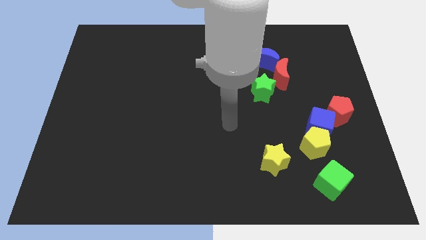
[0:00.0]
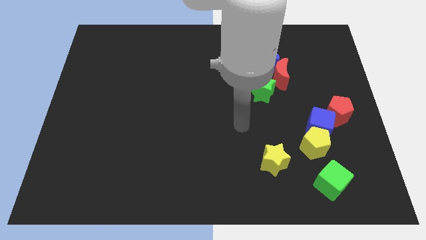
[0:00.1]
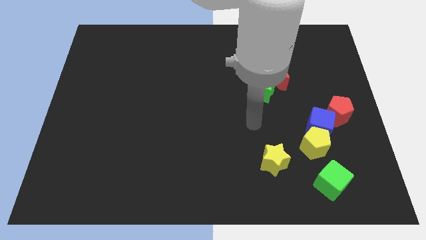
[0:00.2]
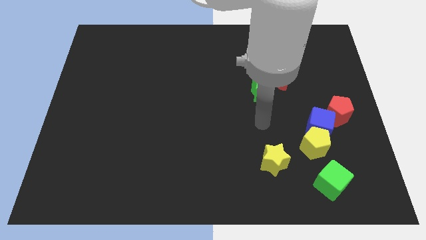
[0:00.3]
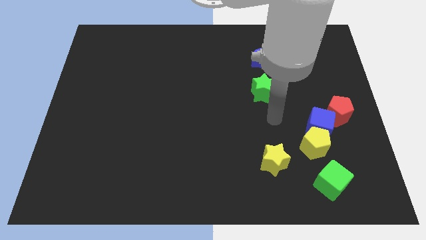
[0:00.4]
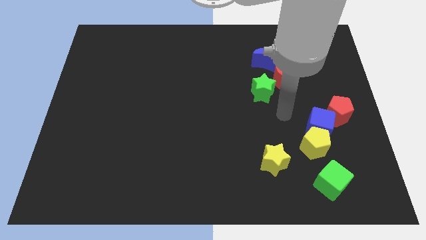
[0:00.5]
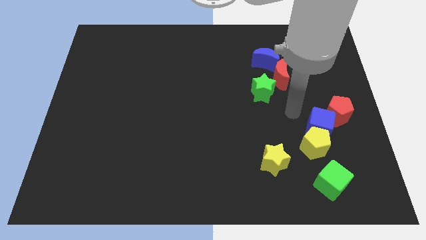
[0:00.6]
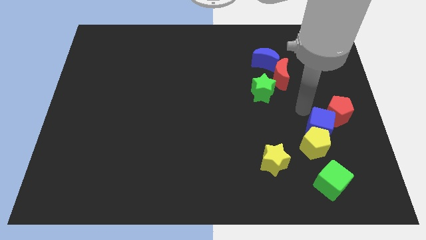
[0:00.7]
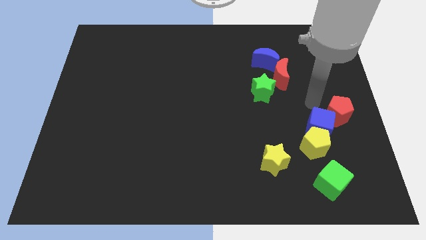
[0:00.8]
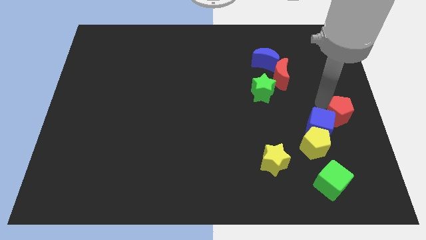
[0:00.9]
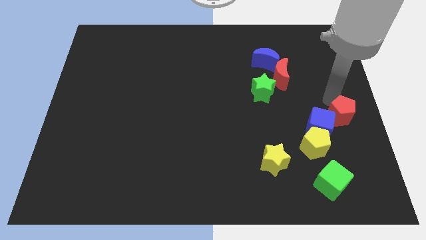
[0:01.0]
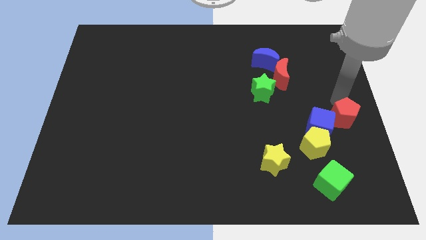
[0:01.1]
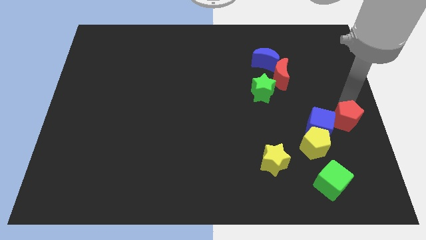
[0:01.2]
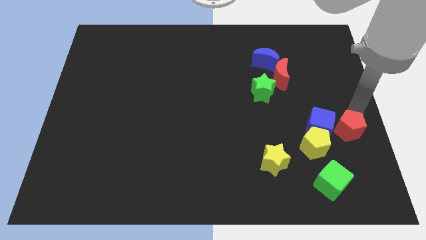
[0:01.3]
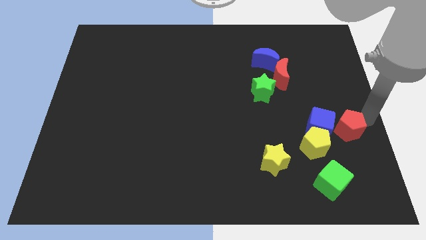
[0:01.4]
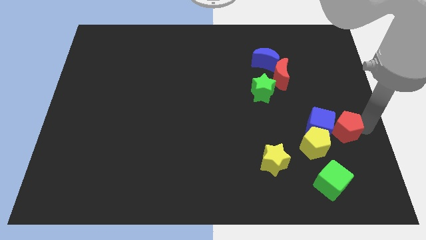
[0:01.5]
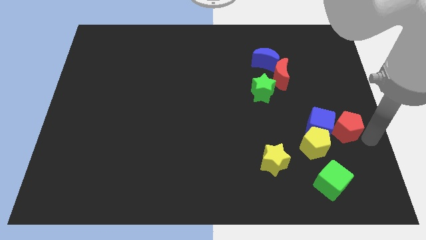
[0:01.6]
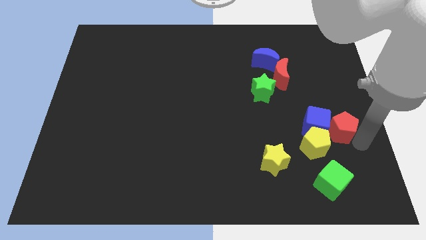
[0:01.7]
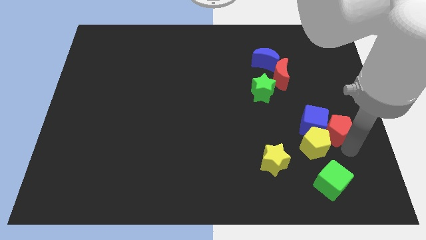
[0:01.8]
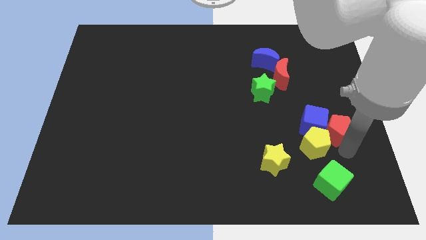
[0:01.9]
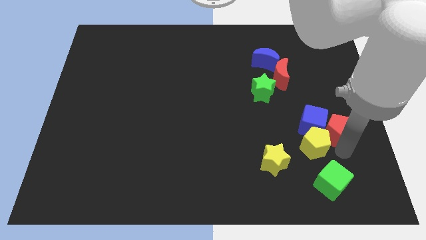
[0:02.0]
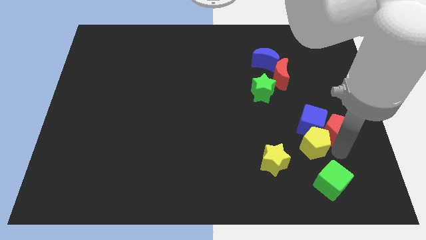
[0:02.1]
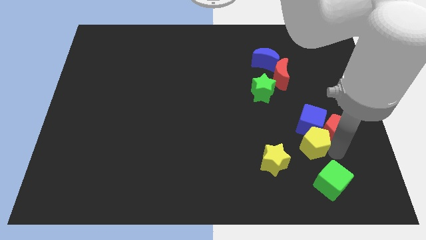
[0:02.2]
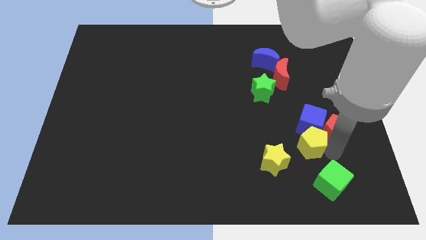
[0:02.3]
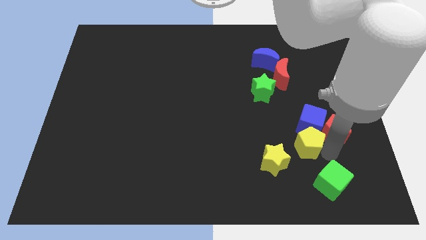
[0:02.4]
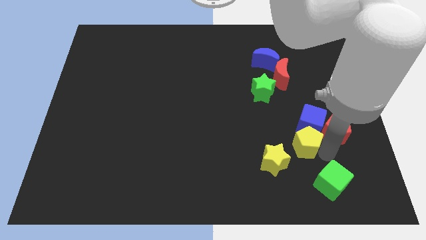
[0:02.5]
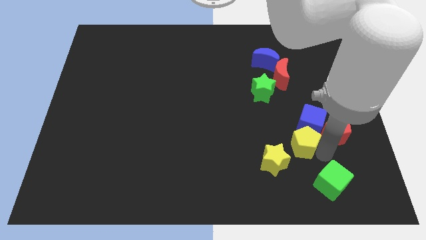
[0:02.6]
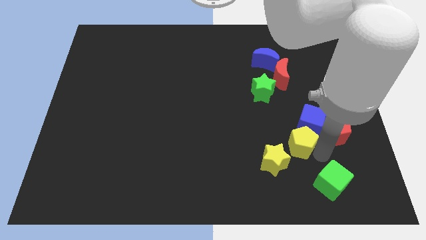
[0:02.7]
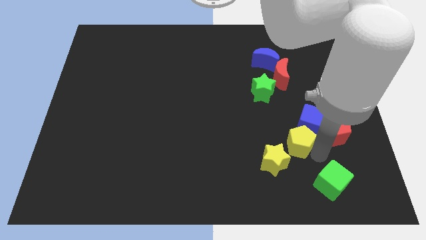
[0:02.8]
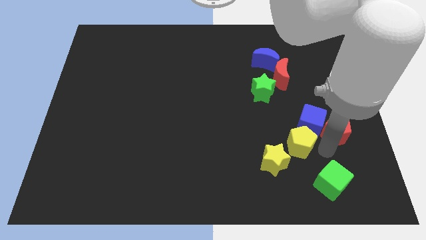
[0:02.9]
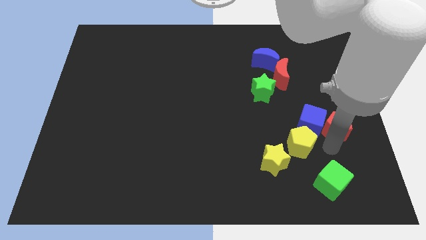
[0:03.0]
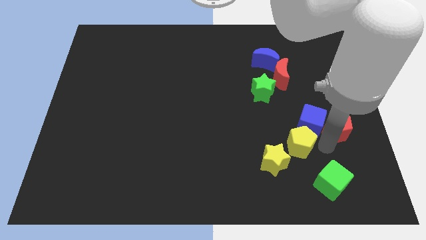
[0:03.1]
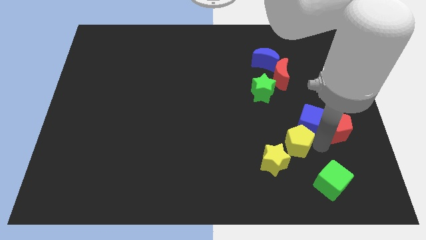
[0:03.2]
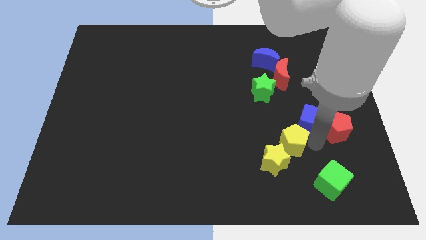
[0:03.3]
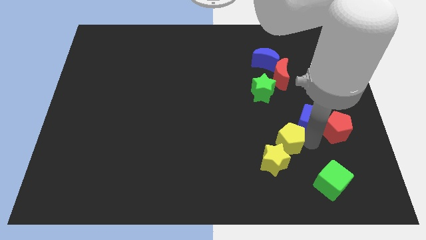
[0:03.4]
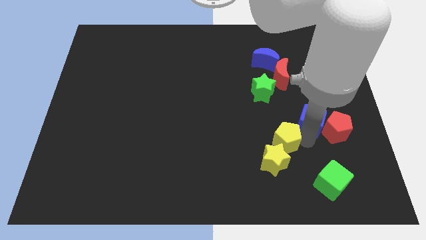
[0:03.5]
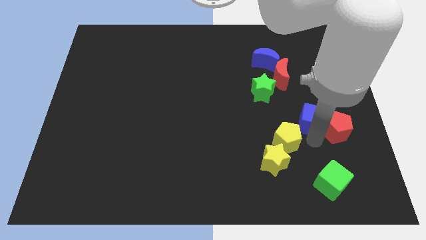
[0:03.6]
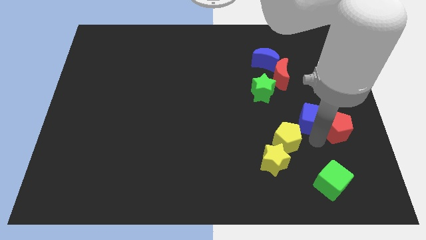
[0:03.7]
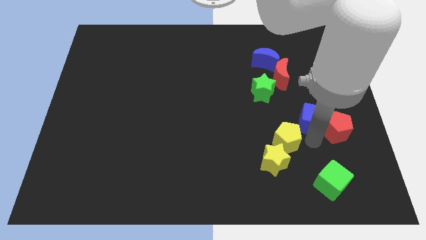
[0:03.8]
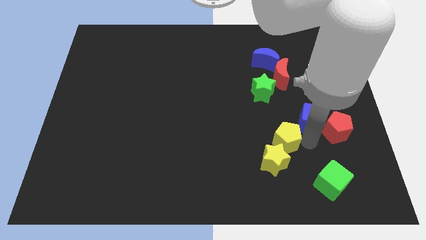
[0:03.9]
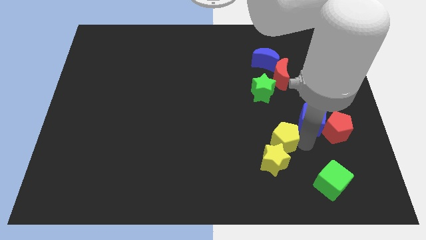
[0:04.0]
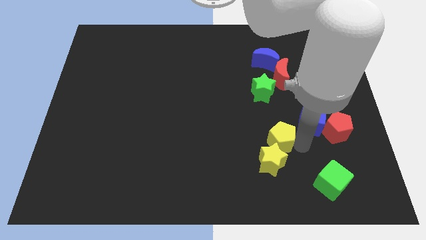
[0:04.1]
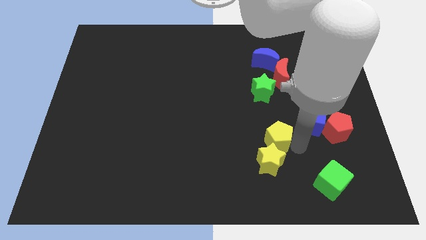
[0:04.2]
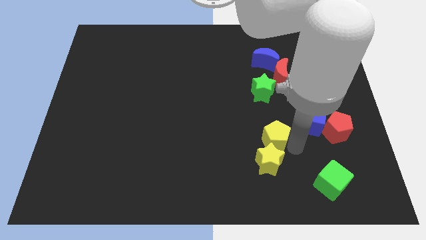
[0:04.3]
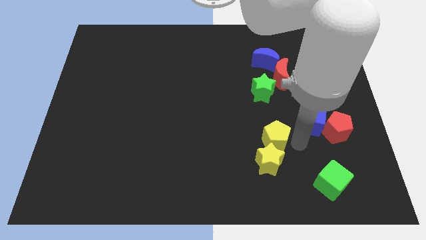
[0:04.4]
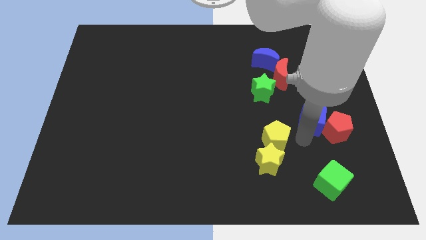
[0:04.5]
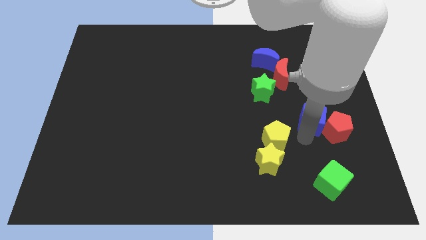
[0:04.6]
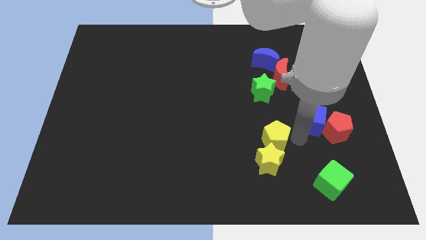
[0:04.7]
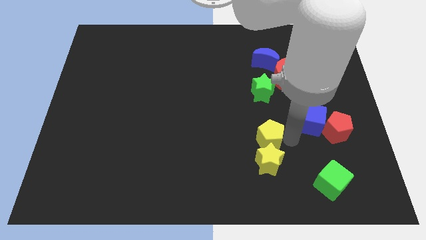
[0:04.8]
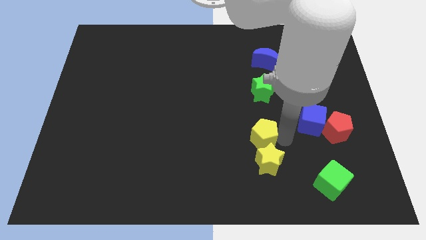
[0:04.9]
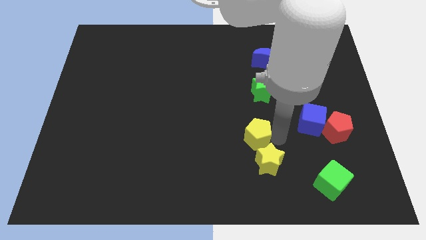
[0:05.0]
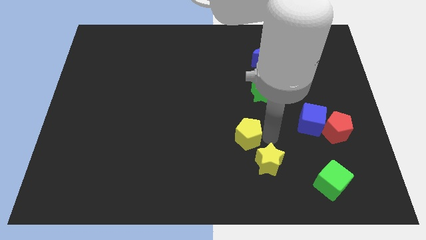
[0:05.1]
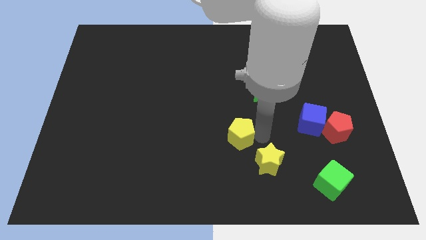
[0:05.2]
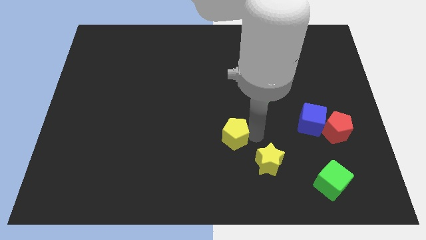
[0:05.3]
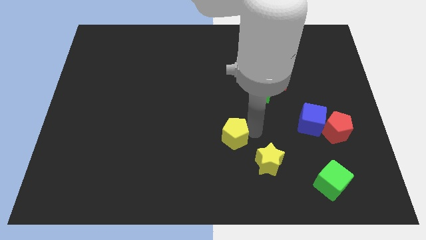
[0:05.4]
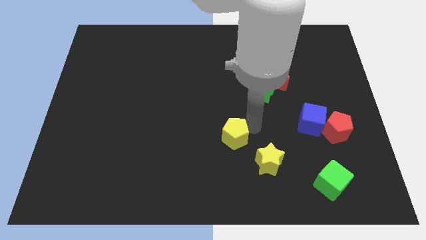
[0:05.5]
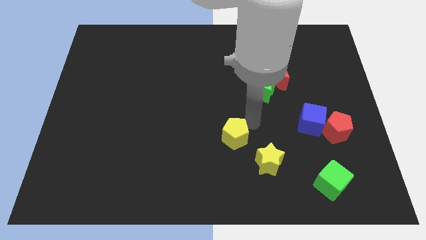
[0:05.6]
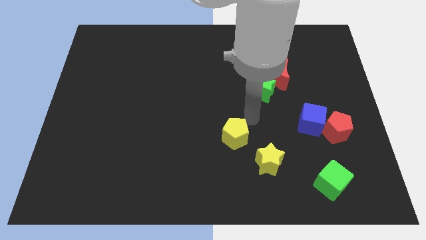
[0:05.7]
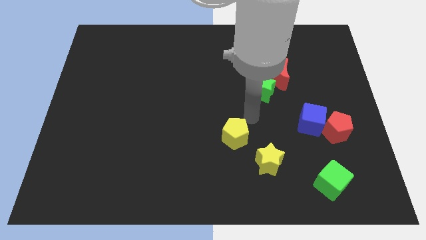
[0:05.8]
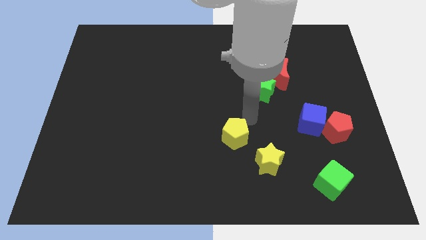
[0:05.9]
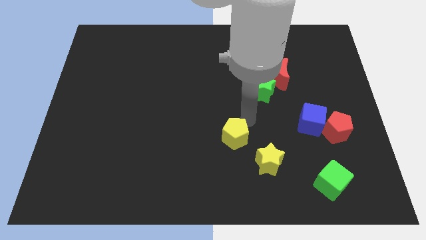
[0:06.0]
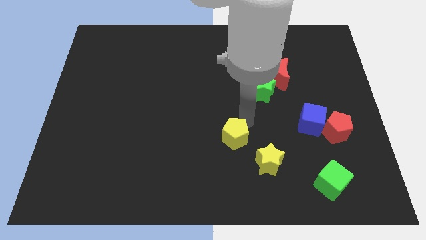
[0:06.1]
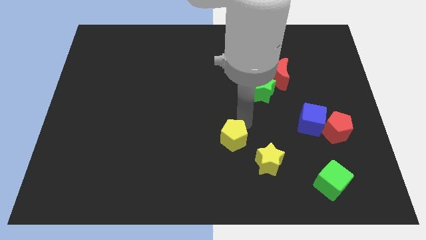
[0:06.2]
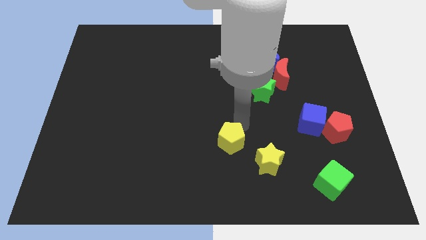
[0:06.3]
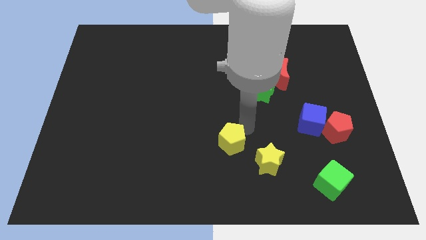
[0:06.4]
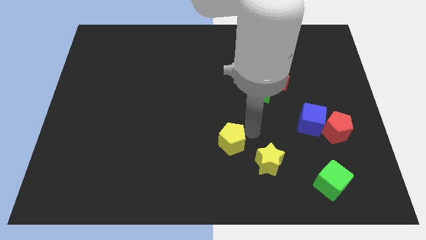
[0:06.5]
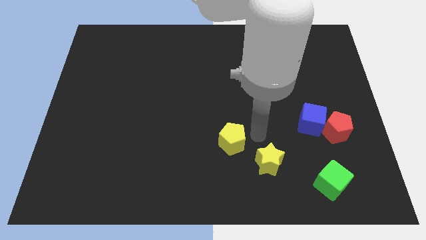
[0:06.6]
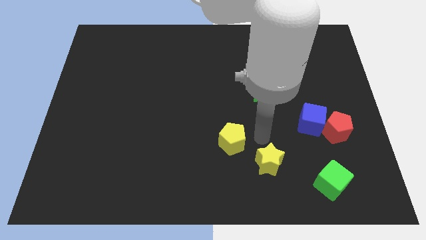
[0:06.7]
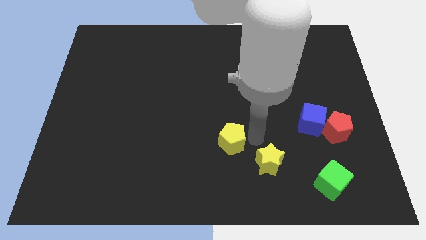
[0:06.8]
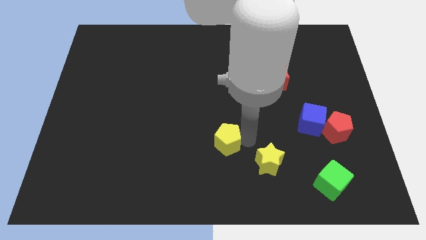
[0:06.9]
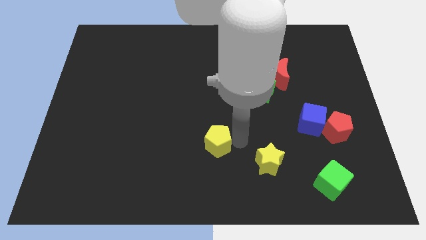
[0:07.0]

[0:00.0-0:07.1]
slide the yellow pentagon to the left

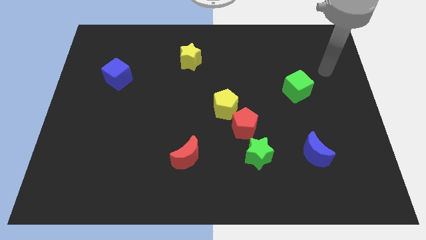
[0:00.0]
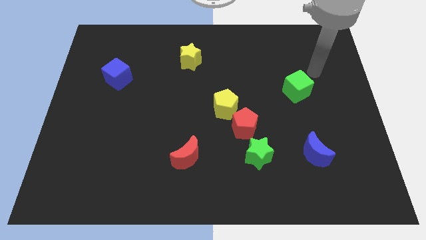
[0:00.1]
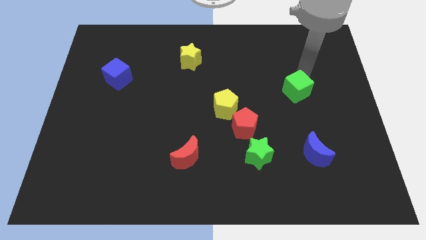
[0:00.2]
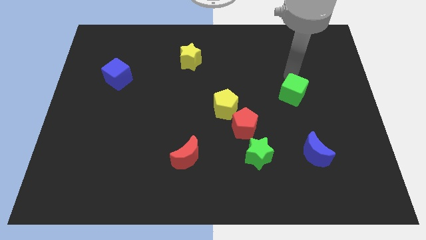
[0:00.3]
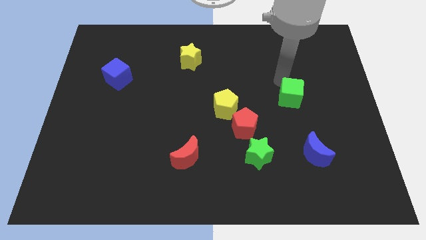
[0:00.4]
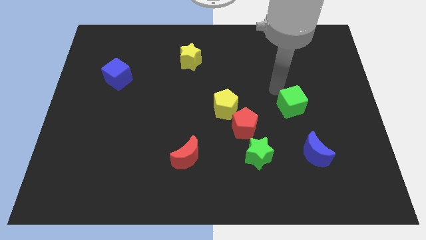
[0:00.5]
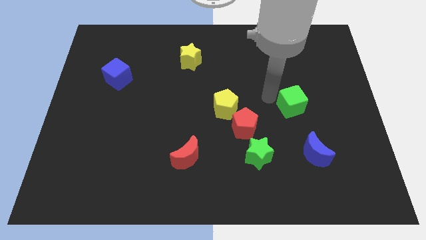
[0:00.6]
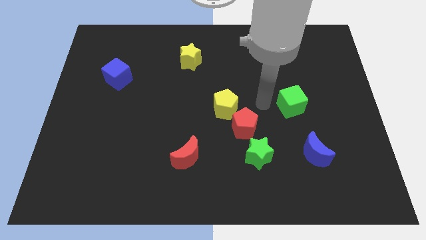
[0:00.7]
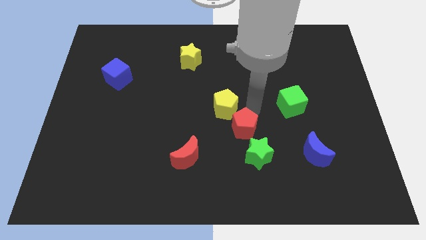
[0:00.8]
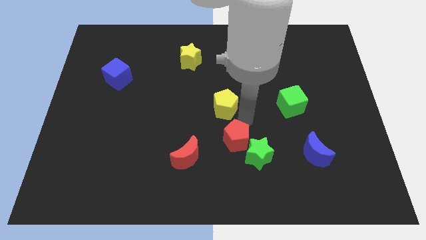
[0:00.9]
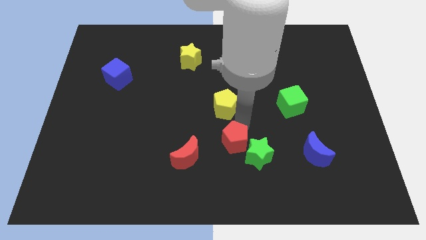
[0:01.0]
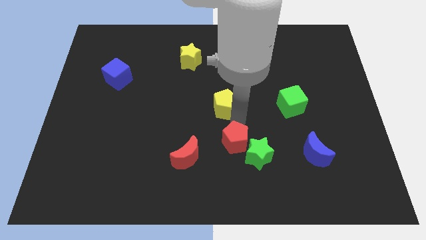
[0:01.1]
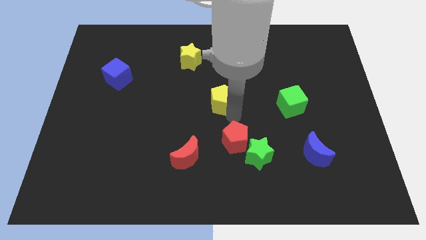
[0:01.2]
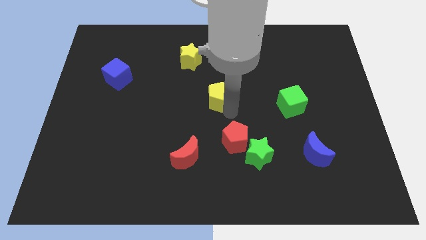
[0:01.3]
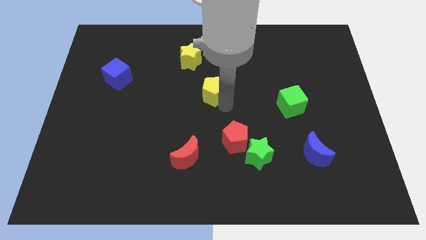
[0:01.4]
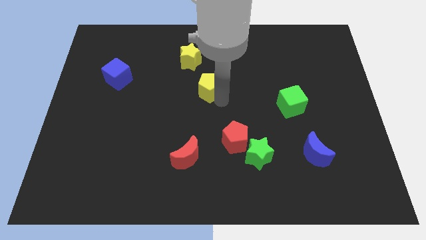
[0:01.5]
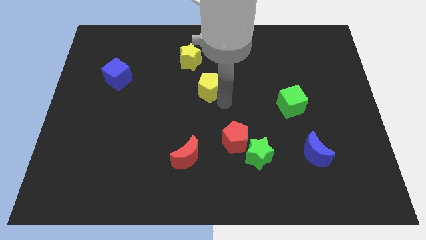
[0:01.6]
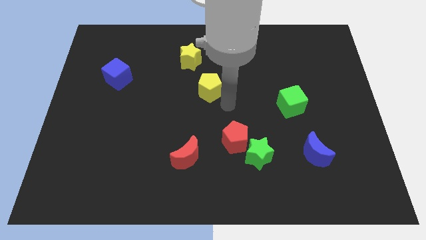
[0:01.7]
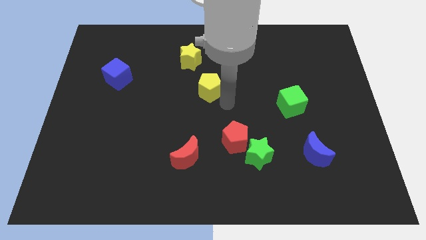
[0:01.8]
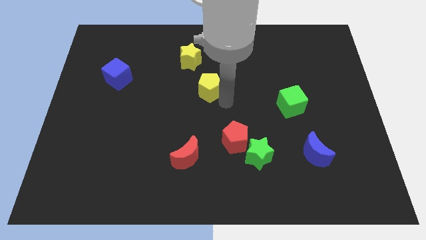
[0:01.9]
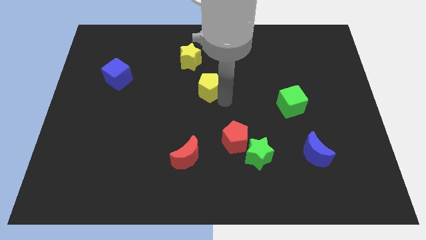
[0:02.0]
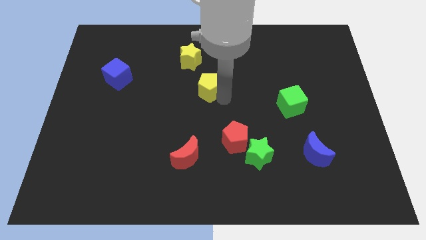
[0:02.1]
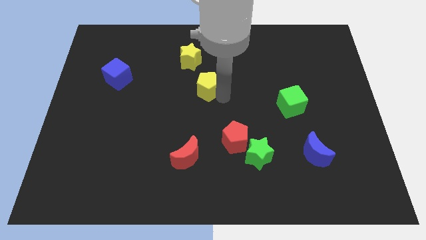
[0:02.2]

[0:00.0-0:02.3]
slide the yellow pentagon diagonally upwards and to the left a bit
